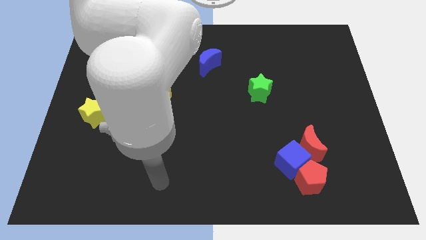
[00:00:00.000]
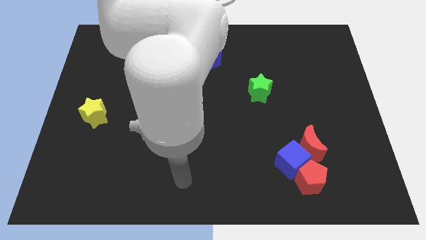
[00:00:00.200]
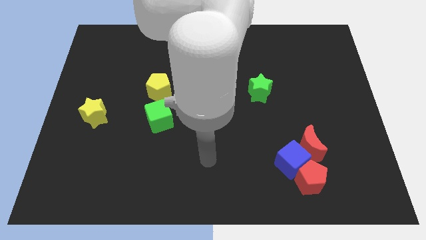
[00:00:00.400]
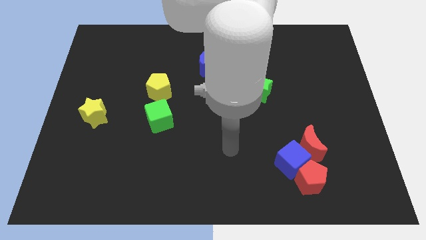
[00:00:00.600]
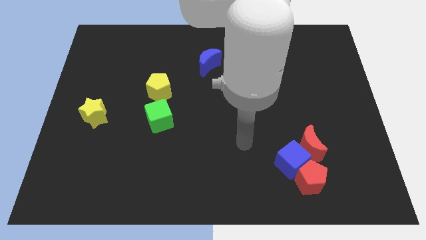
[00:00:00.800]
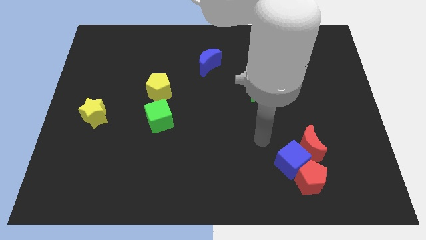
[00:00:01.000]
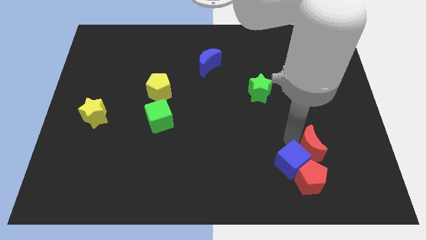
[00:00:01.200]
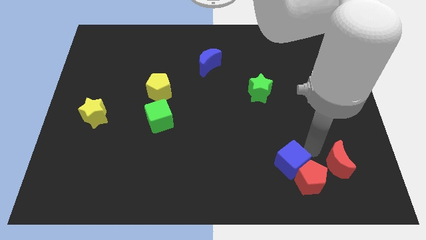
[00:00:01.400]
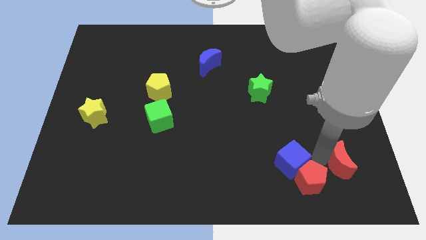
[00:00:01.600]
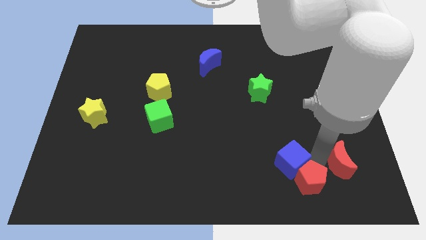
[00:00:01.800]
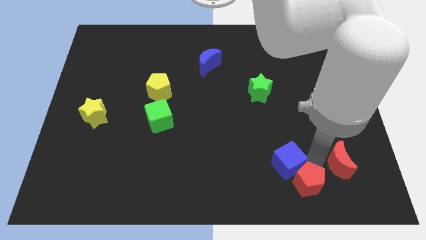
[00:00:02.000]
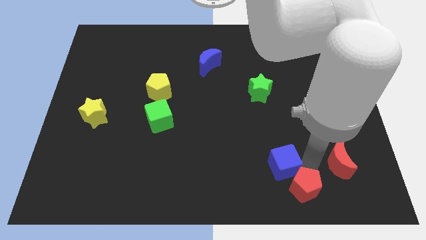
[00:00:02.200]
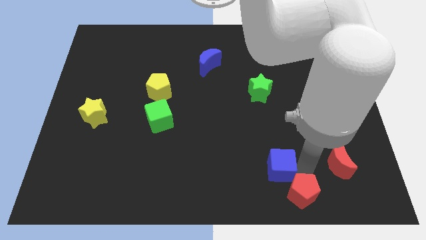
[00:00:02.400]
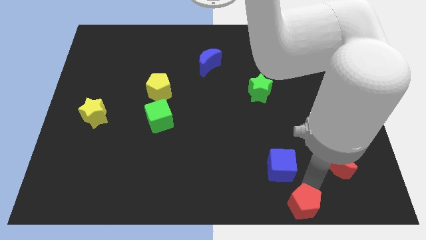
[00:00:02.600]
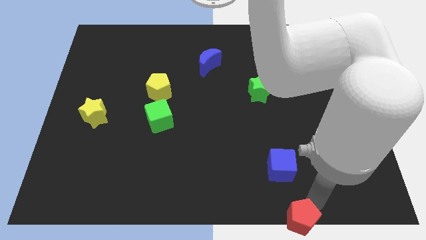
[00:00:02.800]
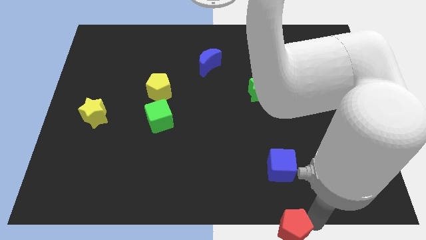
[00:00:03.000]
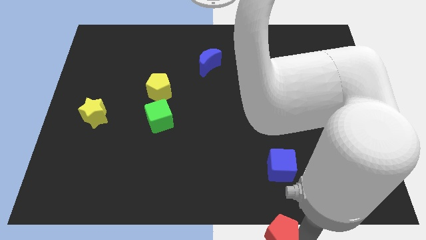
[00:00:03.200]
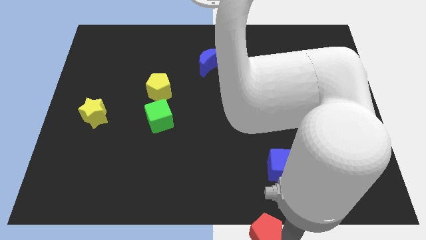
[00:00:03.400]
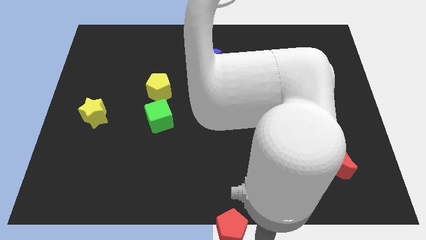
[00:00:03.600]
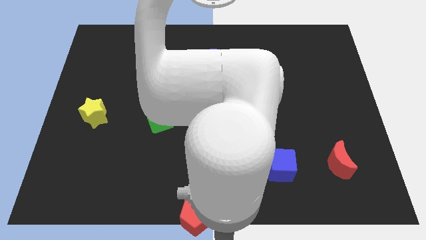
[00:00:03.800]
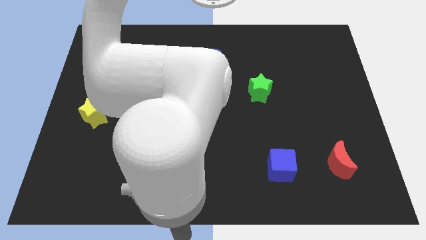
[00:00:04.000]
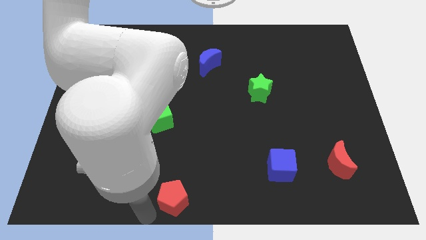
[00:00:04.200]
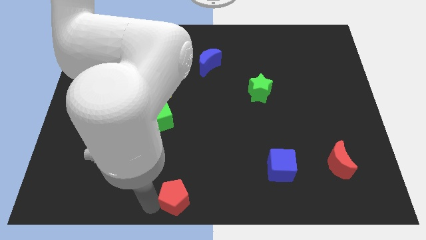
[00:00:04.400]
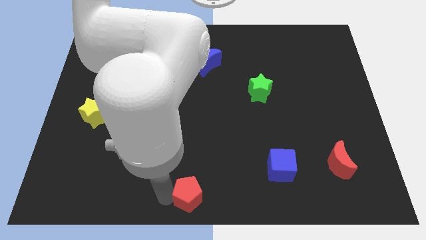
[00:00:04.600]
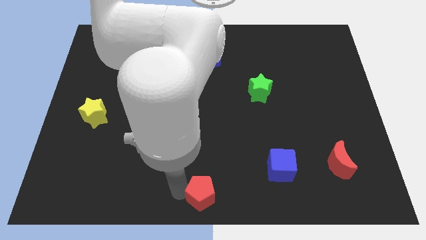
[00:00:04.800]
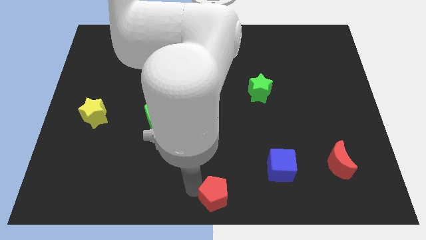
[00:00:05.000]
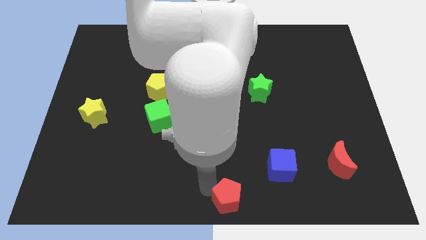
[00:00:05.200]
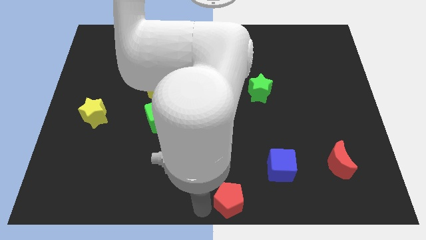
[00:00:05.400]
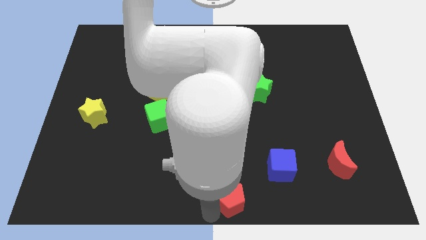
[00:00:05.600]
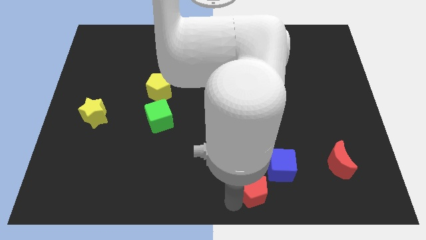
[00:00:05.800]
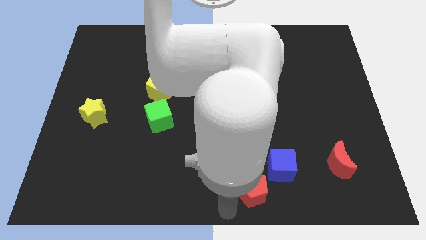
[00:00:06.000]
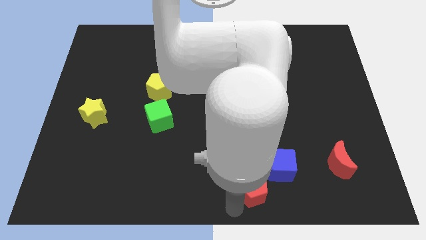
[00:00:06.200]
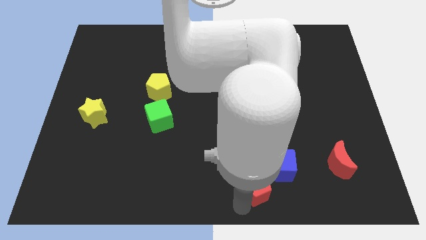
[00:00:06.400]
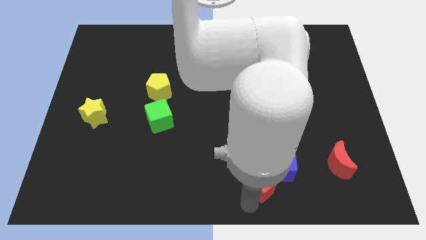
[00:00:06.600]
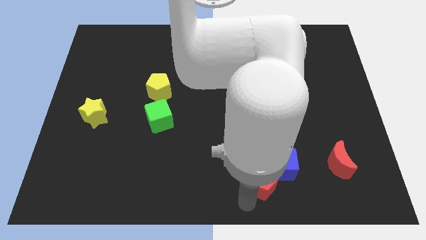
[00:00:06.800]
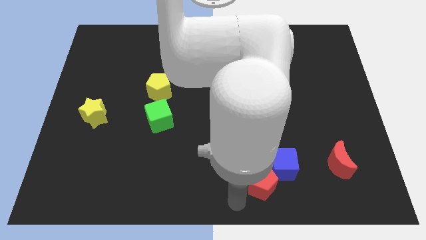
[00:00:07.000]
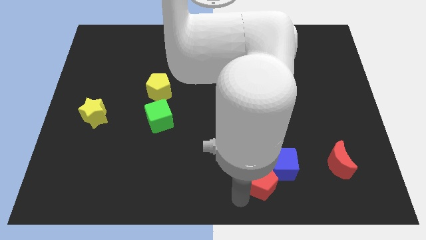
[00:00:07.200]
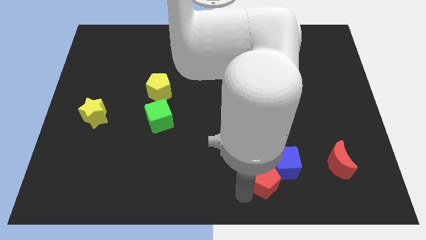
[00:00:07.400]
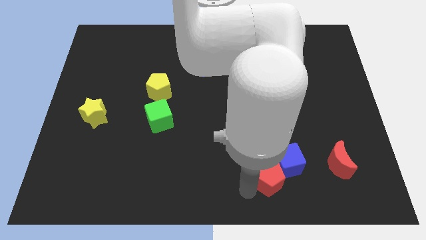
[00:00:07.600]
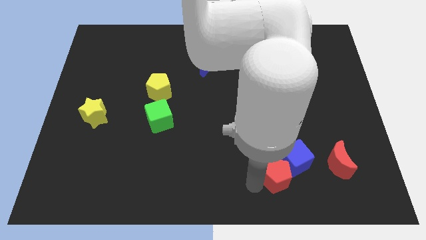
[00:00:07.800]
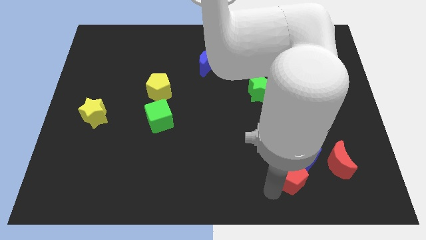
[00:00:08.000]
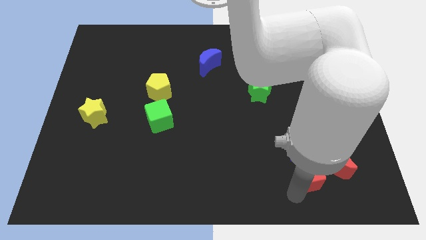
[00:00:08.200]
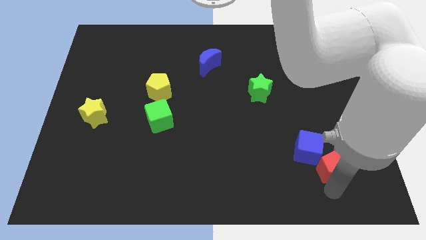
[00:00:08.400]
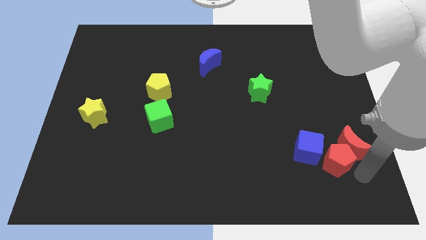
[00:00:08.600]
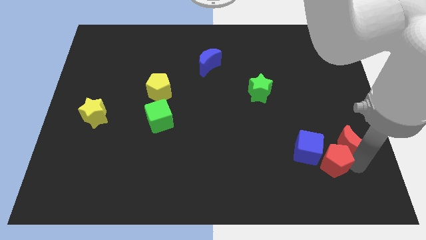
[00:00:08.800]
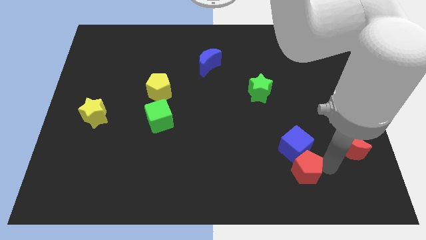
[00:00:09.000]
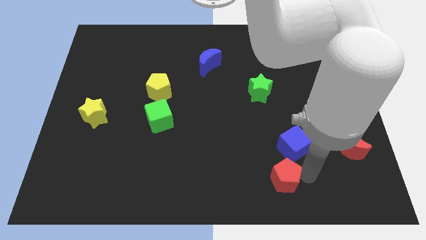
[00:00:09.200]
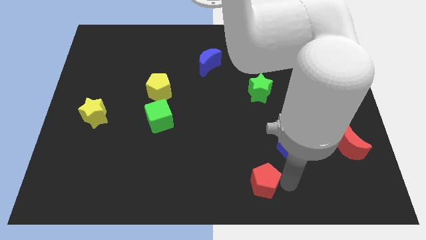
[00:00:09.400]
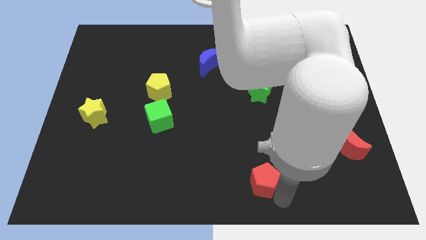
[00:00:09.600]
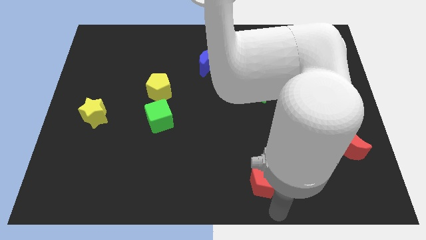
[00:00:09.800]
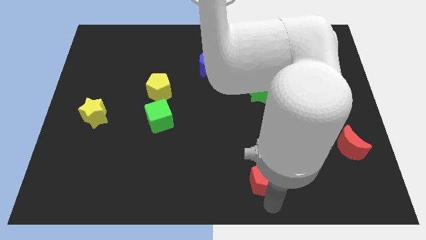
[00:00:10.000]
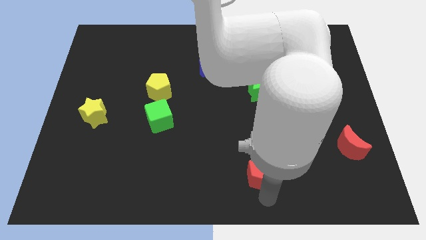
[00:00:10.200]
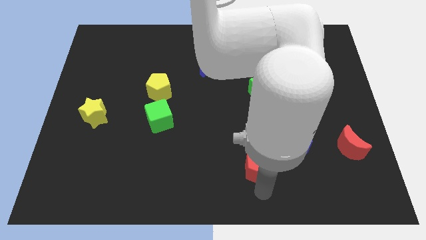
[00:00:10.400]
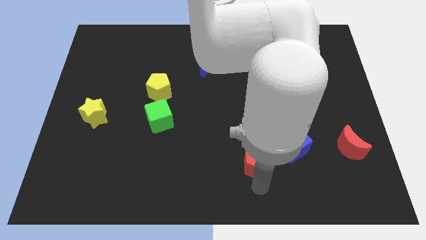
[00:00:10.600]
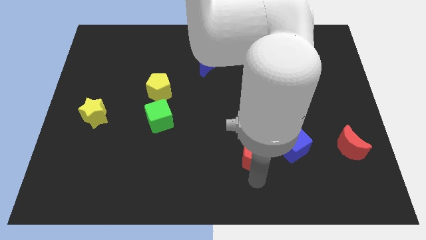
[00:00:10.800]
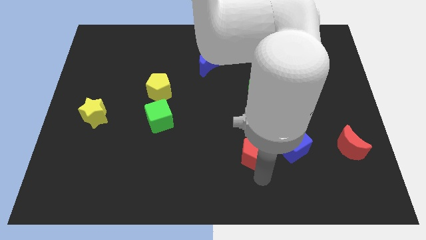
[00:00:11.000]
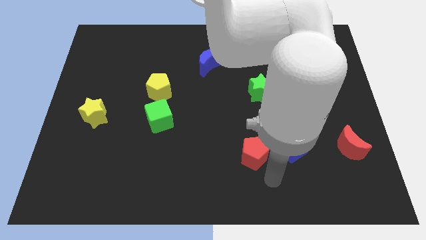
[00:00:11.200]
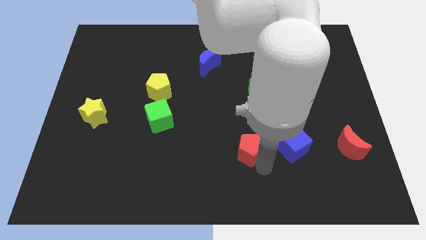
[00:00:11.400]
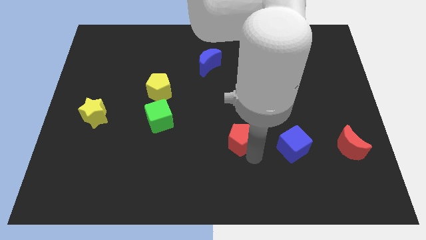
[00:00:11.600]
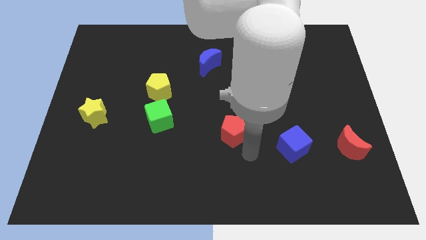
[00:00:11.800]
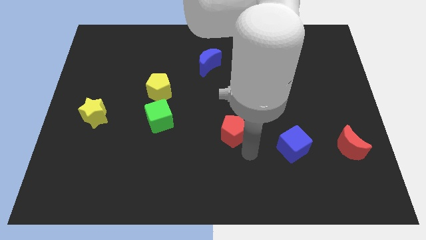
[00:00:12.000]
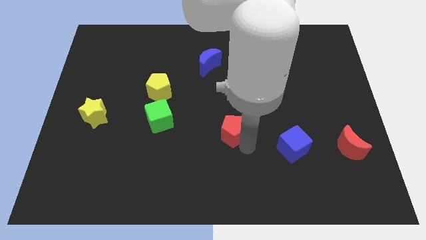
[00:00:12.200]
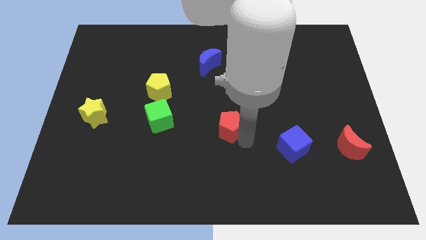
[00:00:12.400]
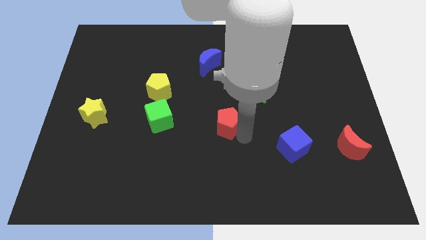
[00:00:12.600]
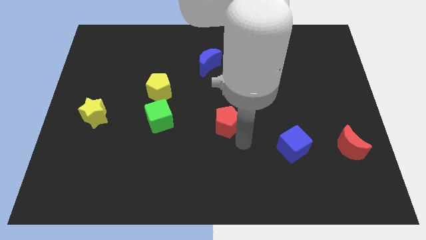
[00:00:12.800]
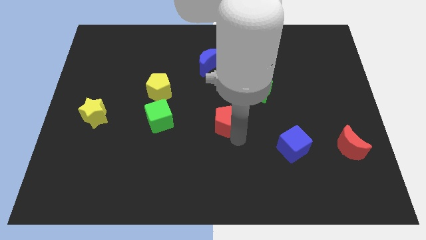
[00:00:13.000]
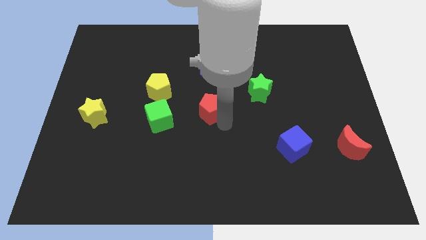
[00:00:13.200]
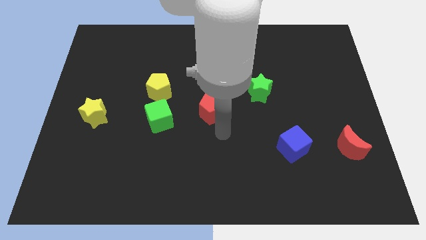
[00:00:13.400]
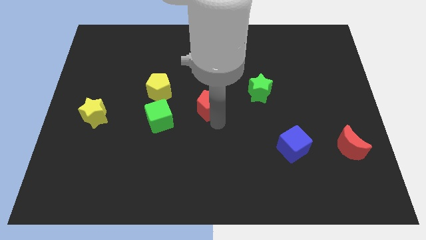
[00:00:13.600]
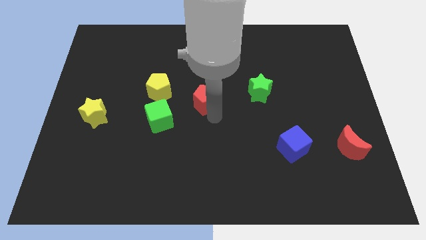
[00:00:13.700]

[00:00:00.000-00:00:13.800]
slide the red pentagon right of the yellow pentagon

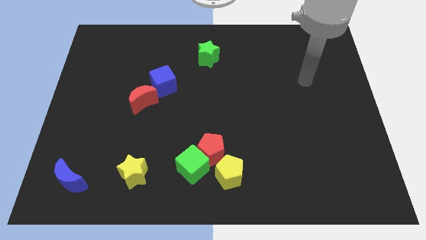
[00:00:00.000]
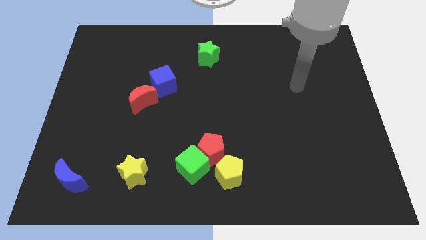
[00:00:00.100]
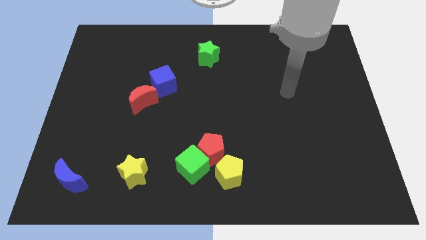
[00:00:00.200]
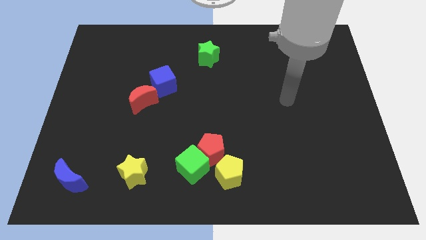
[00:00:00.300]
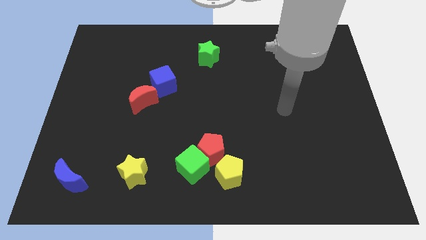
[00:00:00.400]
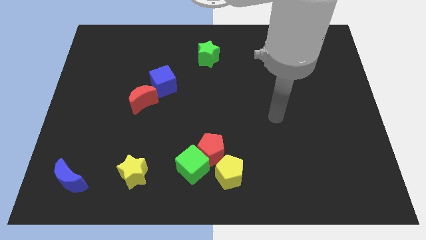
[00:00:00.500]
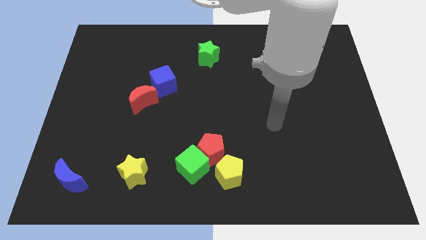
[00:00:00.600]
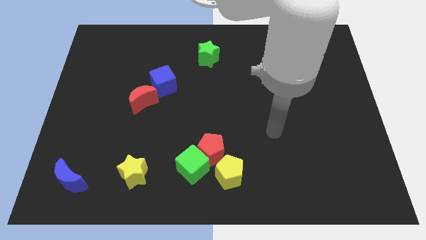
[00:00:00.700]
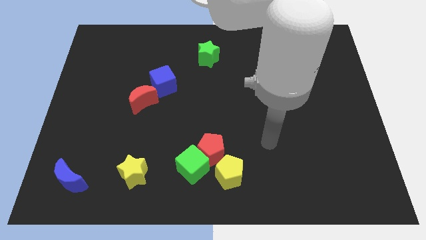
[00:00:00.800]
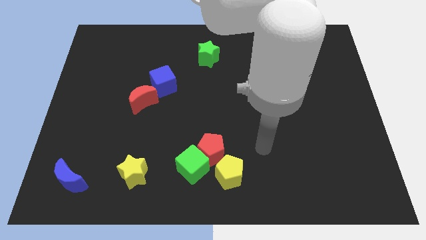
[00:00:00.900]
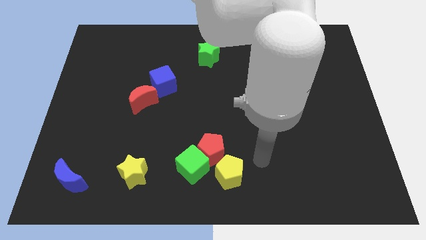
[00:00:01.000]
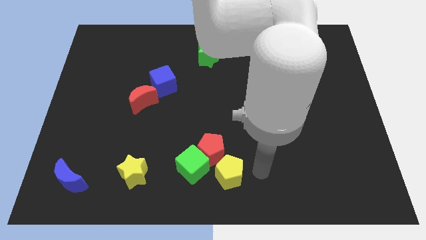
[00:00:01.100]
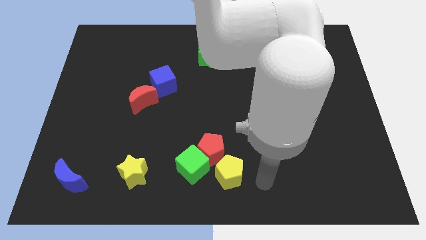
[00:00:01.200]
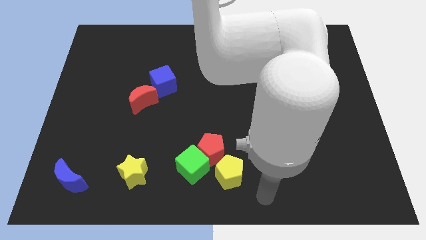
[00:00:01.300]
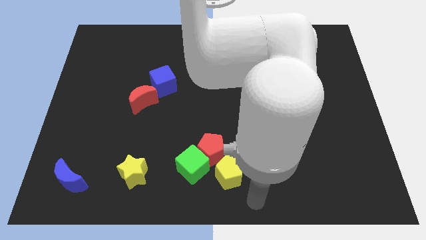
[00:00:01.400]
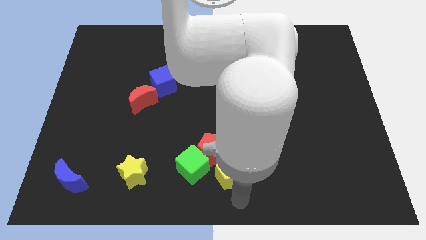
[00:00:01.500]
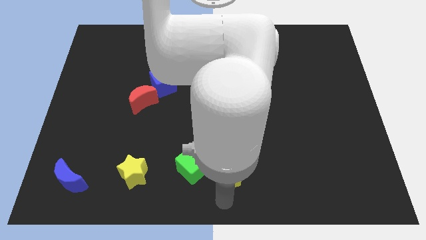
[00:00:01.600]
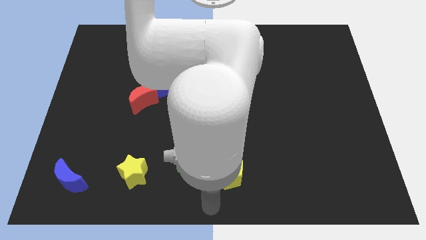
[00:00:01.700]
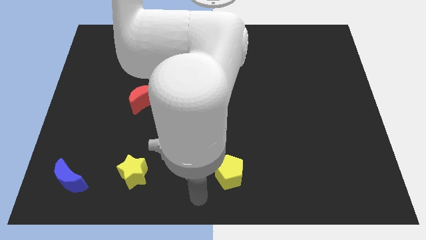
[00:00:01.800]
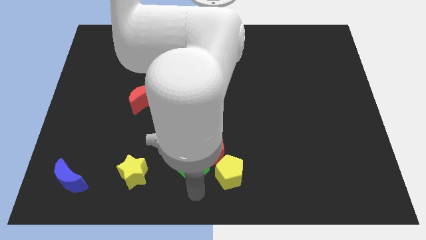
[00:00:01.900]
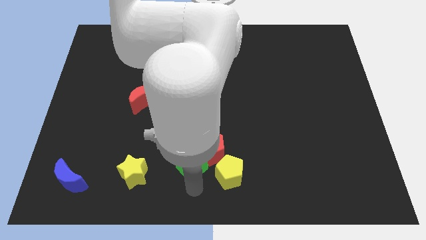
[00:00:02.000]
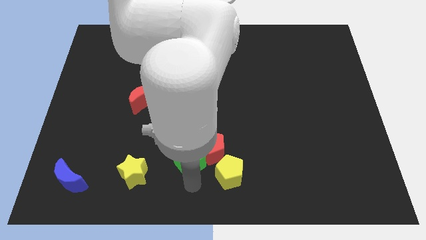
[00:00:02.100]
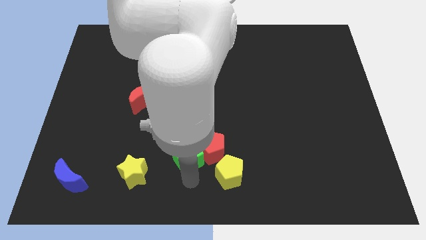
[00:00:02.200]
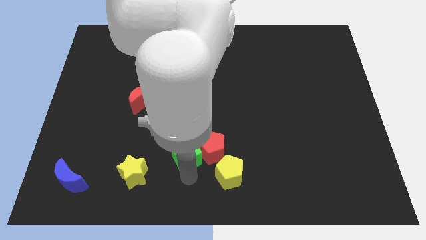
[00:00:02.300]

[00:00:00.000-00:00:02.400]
slide the green cube diagonally up and to the left of the red pentagon
